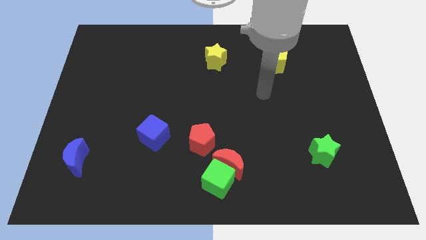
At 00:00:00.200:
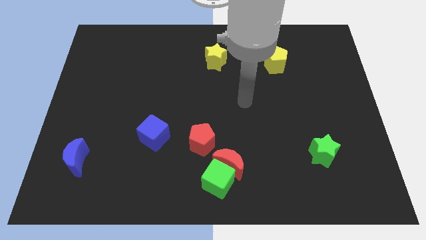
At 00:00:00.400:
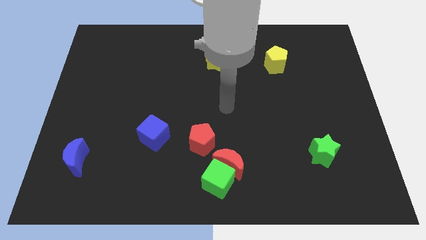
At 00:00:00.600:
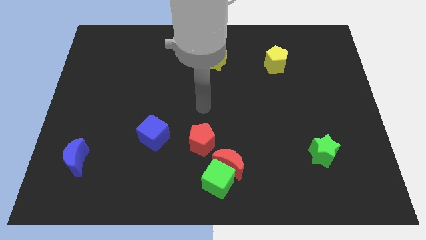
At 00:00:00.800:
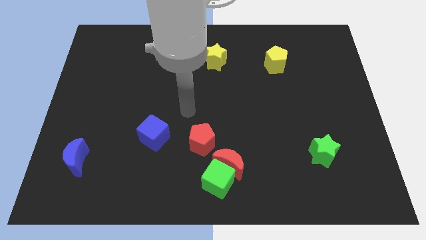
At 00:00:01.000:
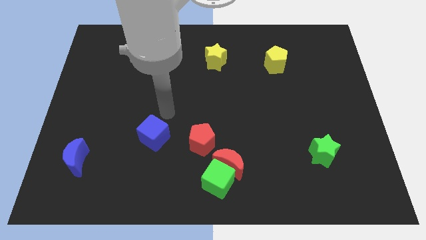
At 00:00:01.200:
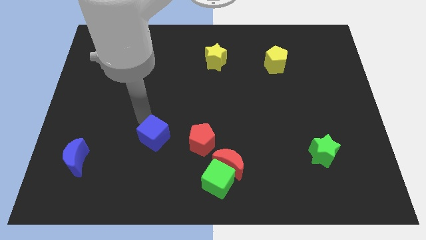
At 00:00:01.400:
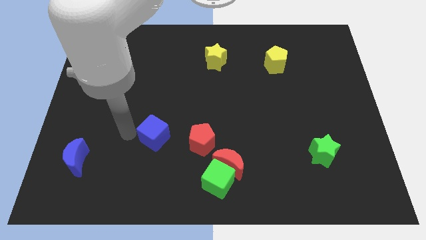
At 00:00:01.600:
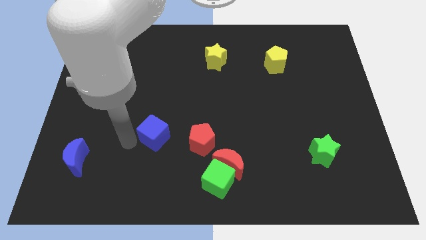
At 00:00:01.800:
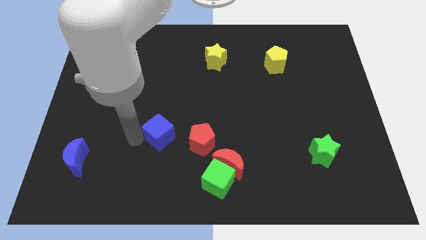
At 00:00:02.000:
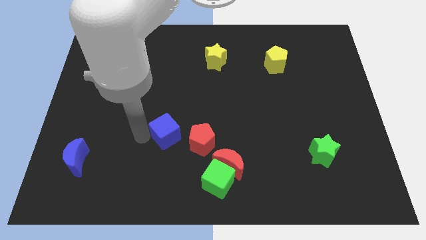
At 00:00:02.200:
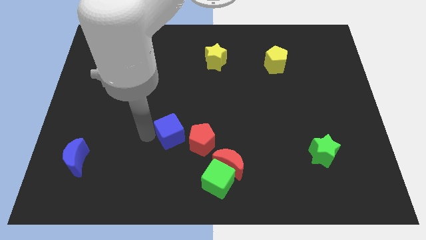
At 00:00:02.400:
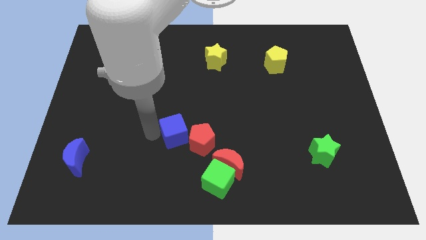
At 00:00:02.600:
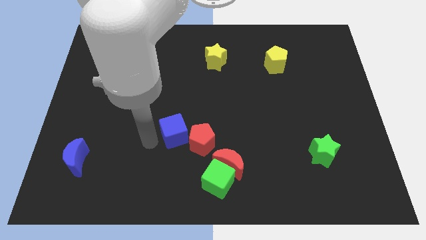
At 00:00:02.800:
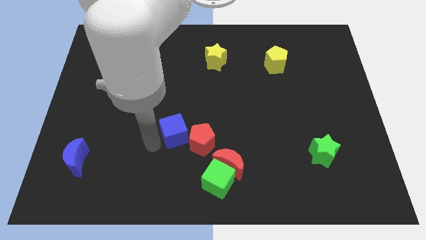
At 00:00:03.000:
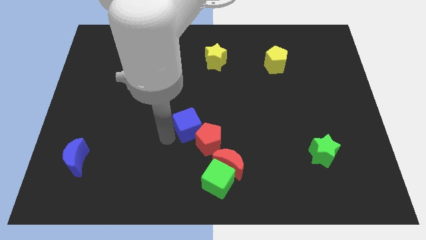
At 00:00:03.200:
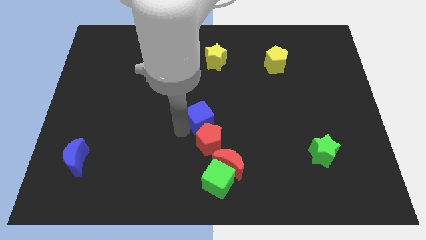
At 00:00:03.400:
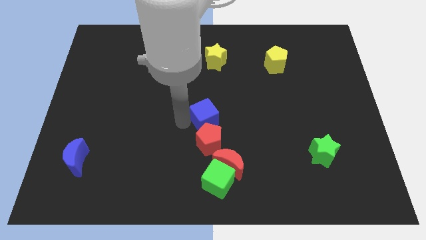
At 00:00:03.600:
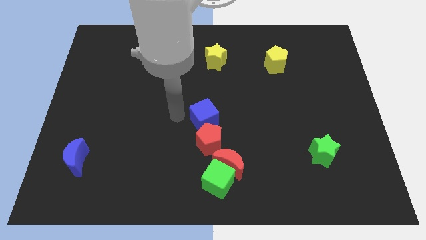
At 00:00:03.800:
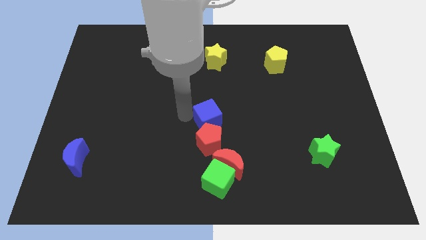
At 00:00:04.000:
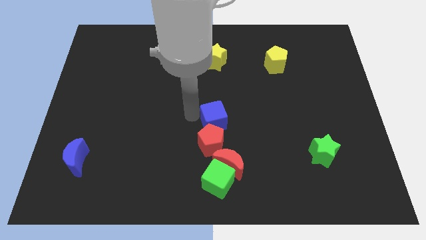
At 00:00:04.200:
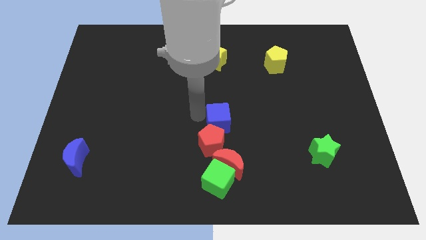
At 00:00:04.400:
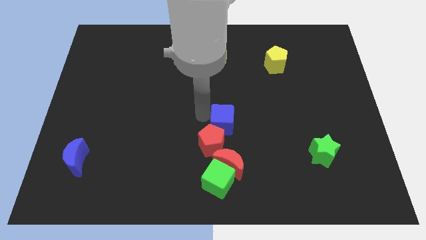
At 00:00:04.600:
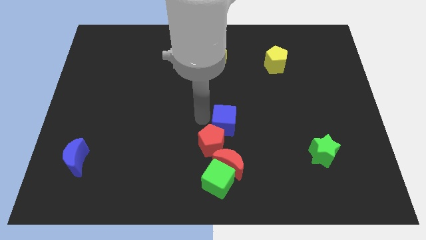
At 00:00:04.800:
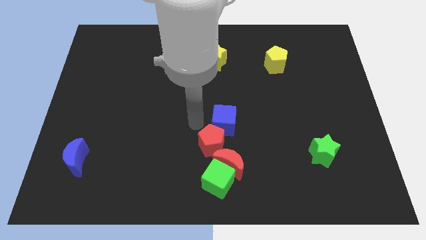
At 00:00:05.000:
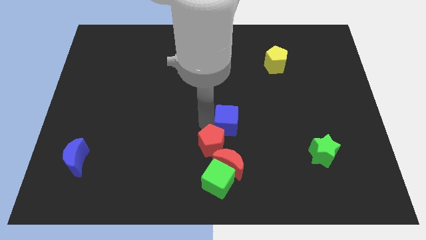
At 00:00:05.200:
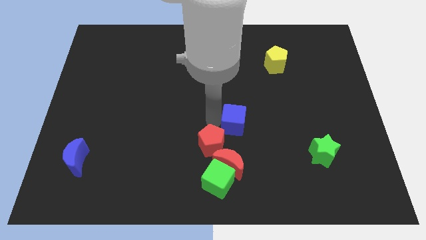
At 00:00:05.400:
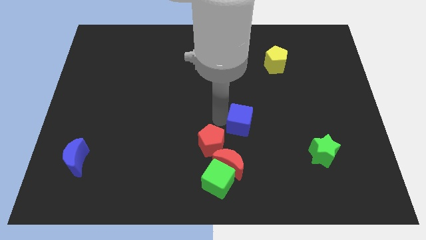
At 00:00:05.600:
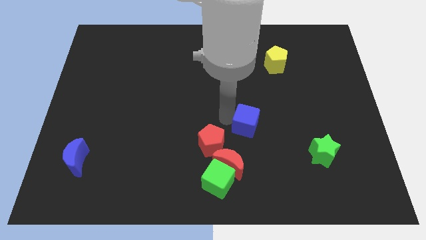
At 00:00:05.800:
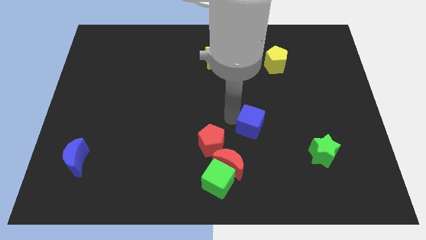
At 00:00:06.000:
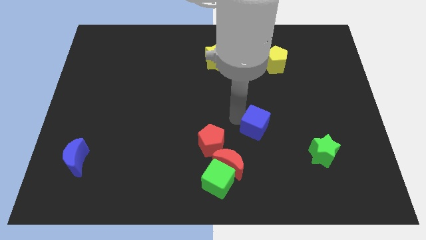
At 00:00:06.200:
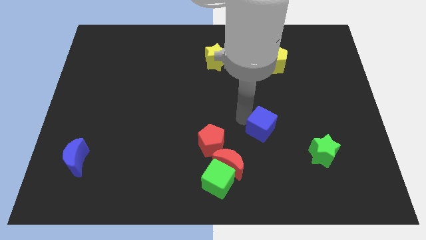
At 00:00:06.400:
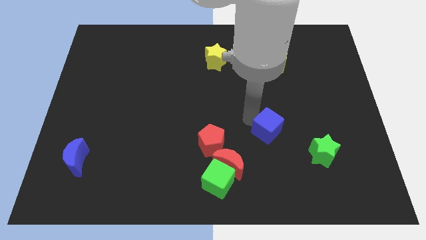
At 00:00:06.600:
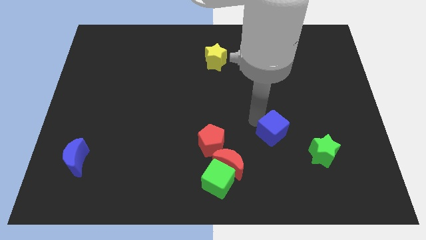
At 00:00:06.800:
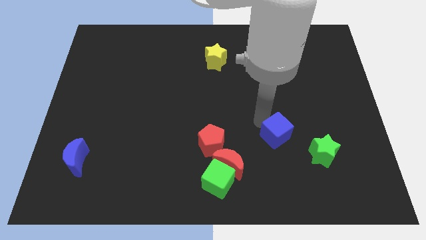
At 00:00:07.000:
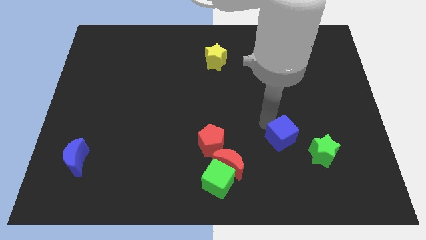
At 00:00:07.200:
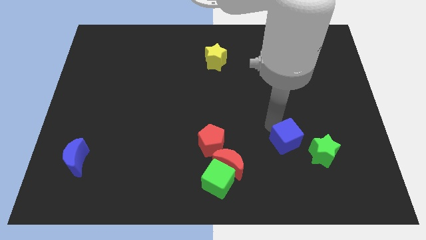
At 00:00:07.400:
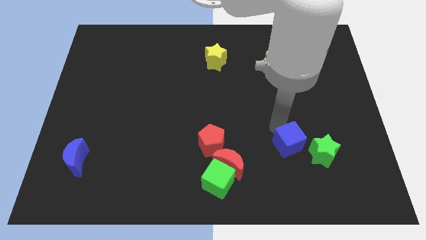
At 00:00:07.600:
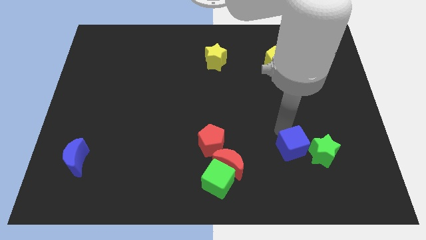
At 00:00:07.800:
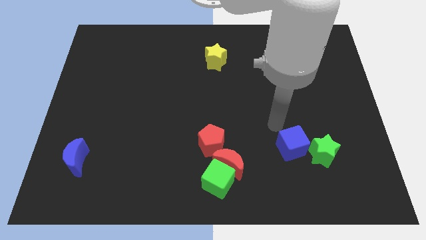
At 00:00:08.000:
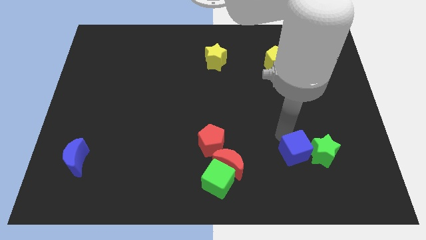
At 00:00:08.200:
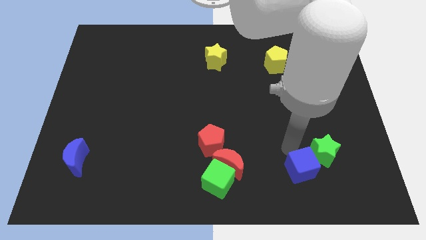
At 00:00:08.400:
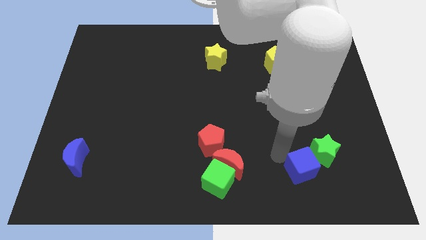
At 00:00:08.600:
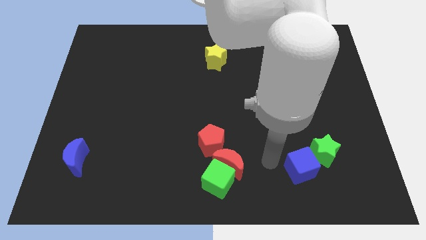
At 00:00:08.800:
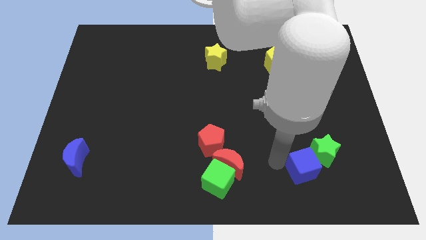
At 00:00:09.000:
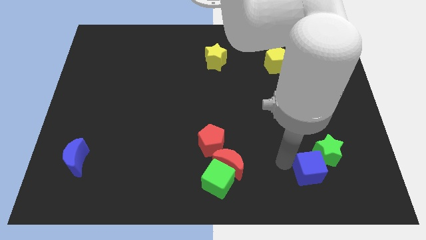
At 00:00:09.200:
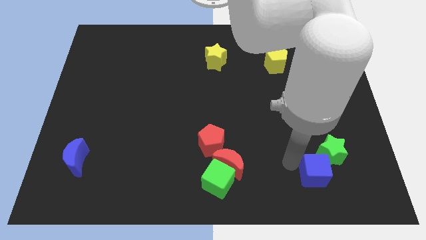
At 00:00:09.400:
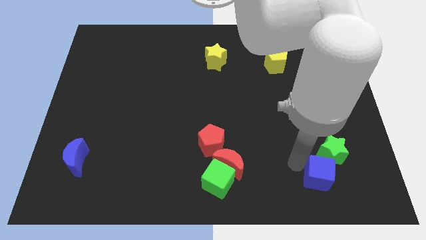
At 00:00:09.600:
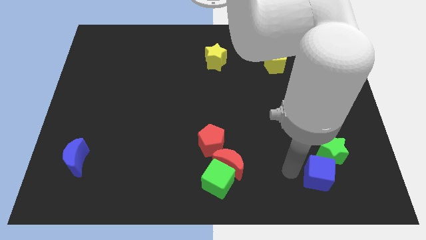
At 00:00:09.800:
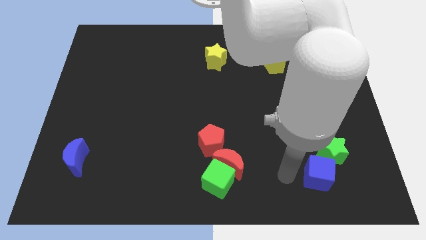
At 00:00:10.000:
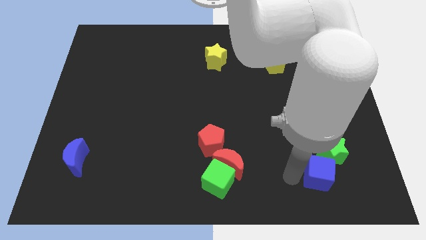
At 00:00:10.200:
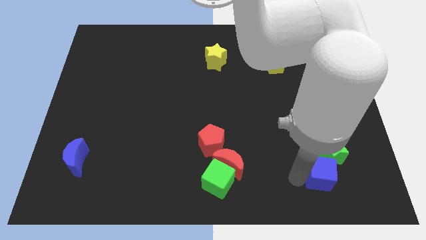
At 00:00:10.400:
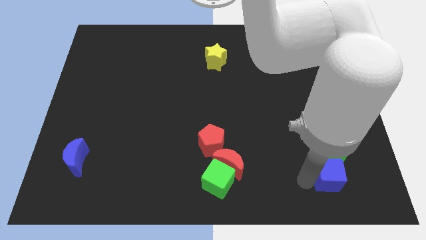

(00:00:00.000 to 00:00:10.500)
move the blue cube to the bottom right side of the green star

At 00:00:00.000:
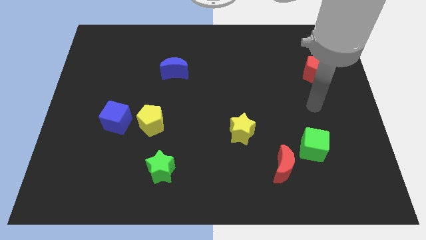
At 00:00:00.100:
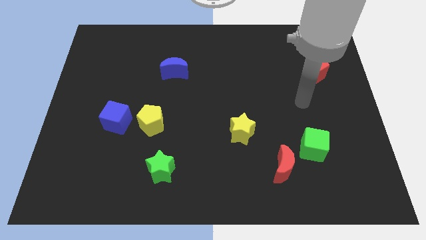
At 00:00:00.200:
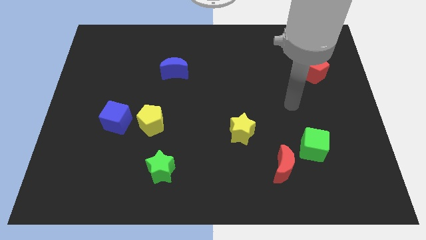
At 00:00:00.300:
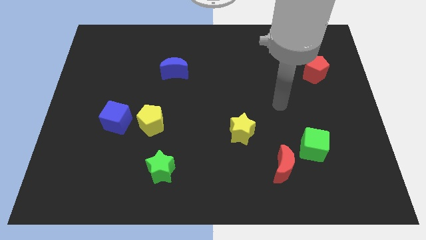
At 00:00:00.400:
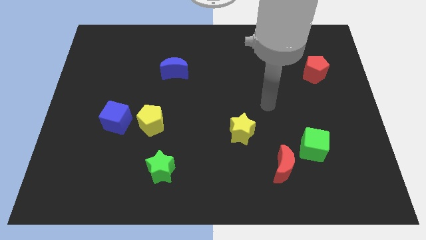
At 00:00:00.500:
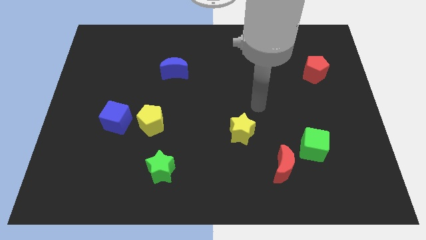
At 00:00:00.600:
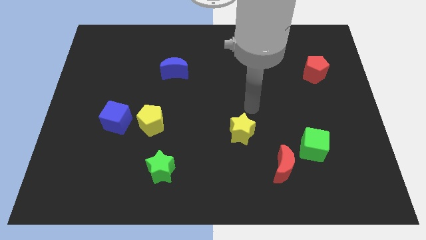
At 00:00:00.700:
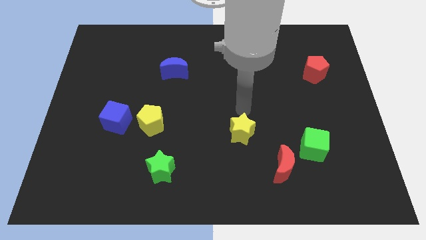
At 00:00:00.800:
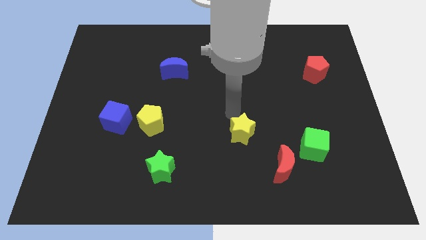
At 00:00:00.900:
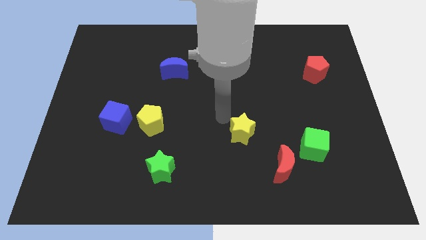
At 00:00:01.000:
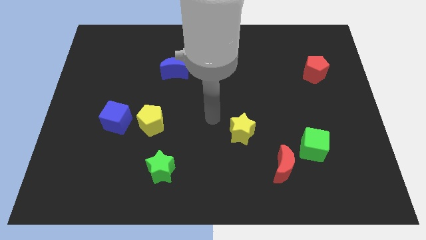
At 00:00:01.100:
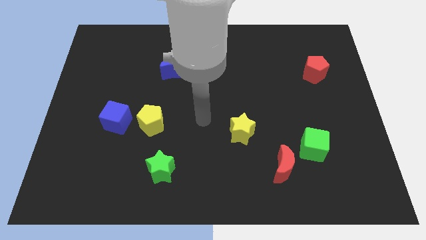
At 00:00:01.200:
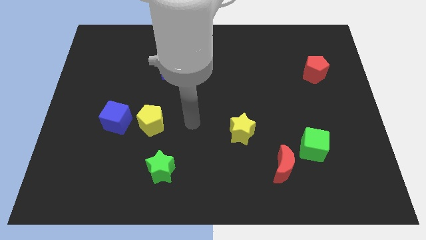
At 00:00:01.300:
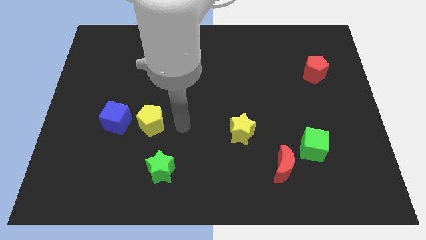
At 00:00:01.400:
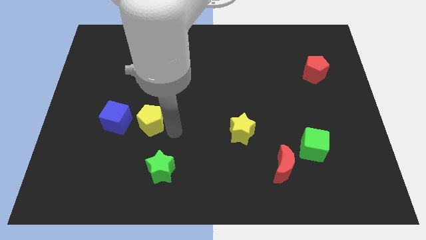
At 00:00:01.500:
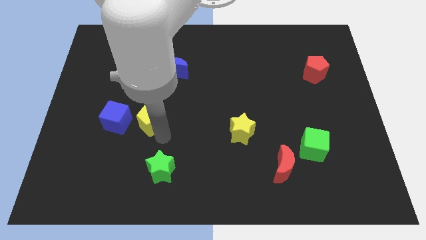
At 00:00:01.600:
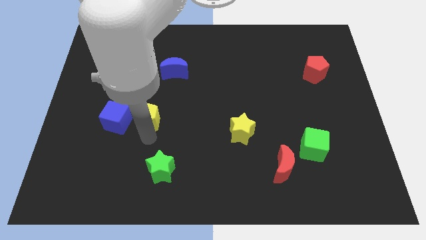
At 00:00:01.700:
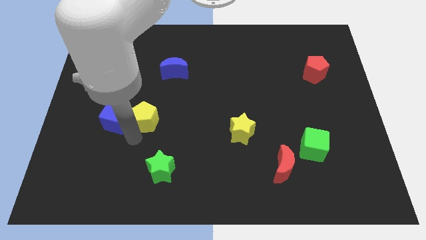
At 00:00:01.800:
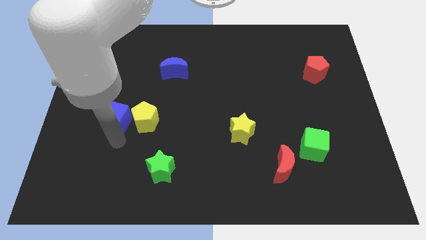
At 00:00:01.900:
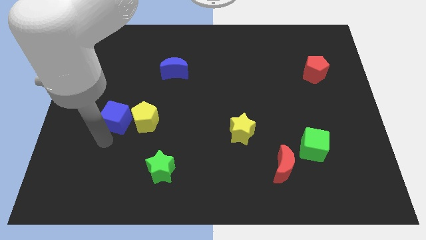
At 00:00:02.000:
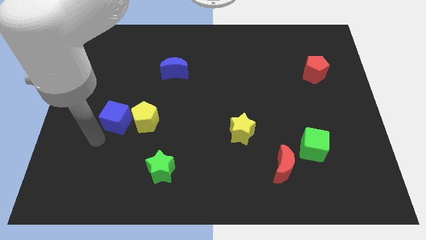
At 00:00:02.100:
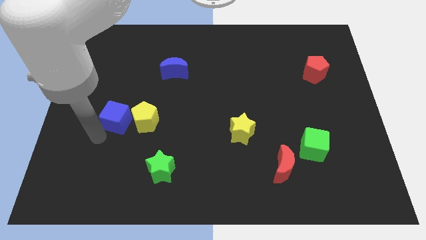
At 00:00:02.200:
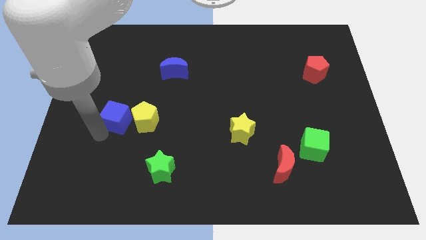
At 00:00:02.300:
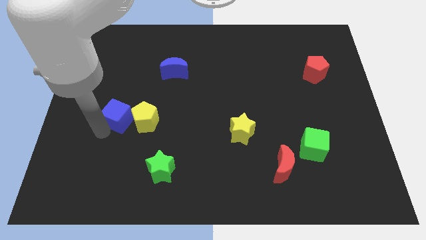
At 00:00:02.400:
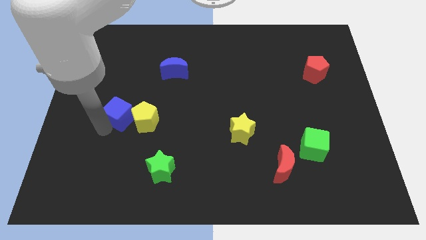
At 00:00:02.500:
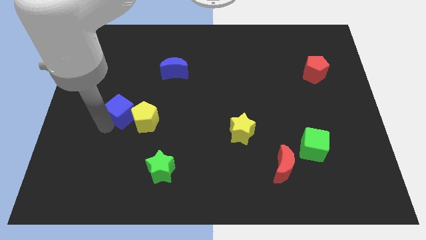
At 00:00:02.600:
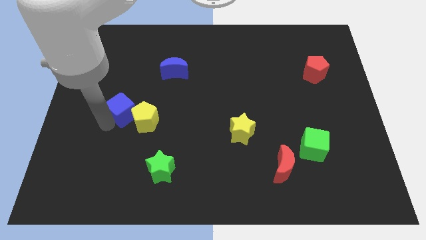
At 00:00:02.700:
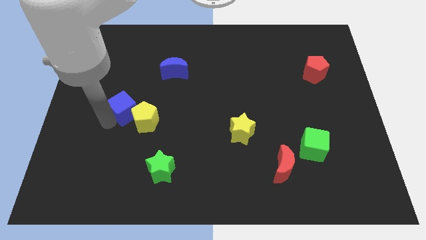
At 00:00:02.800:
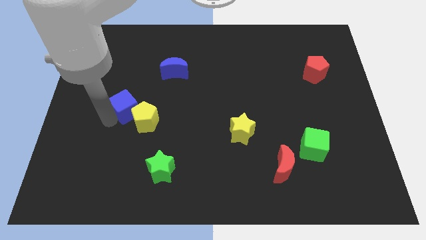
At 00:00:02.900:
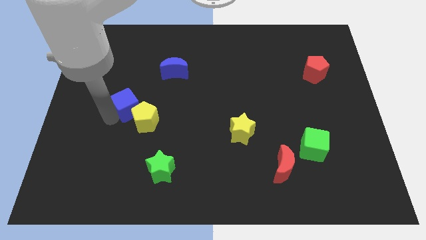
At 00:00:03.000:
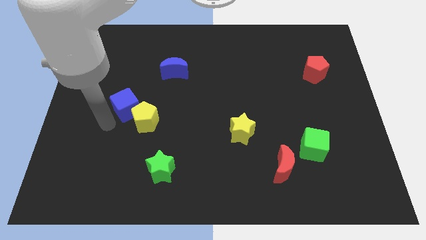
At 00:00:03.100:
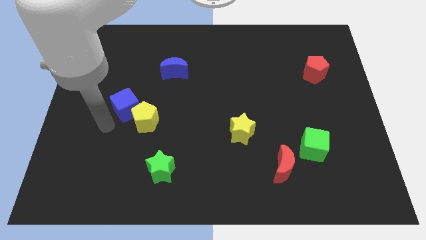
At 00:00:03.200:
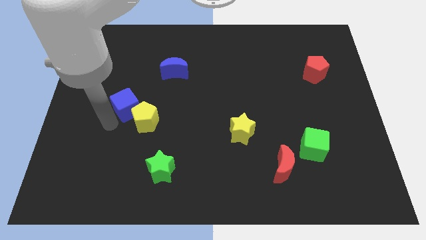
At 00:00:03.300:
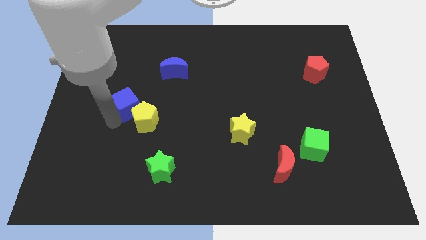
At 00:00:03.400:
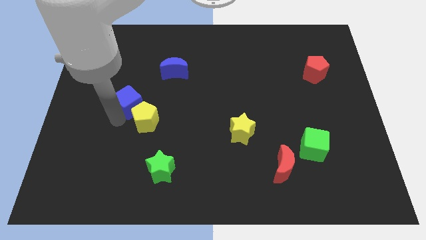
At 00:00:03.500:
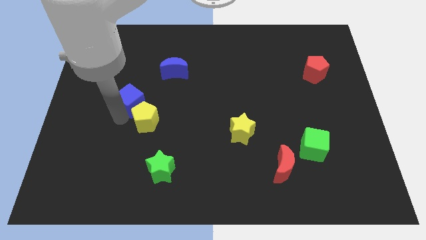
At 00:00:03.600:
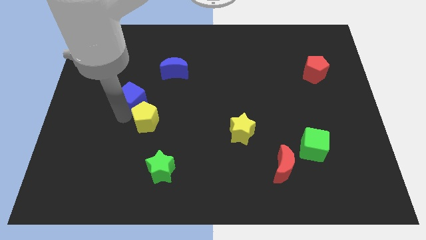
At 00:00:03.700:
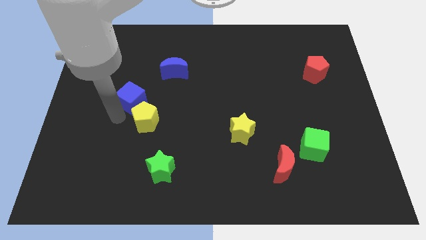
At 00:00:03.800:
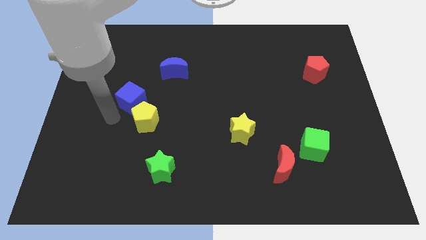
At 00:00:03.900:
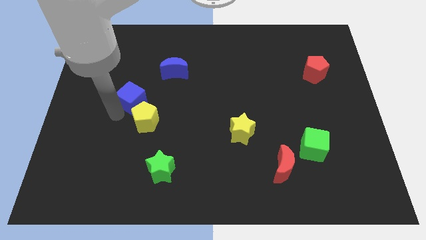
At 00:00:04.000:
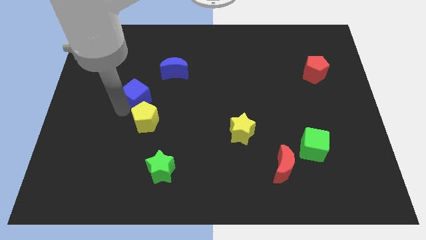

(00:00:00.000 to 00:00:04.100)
slide the blue cube to the bottom left side of the blue moon
